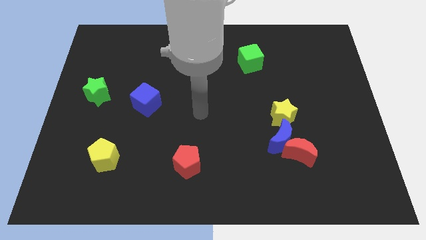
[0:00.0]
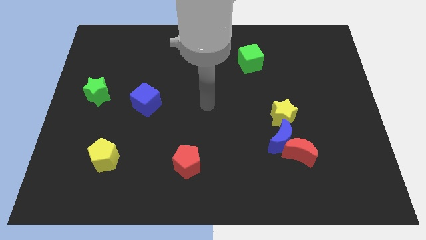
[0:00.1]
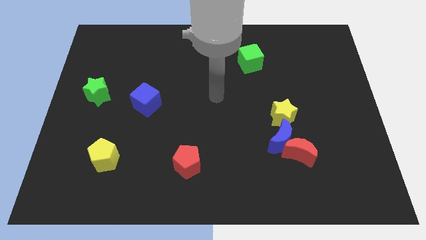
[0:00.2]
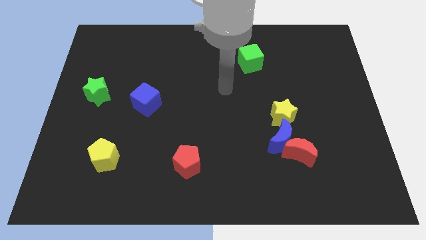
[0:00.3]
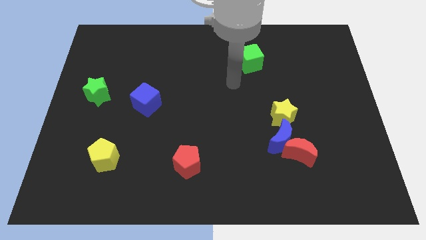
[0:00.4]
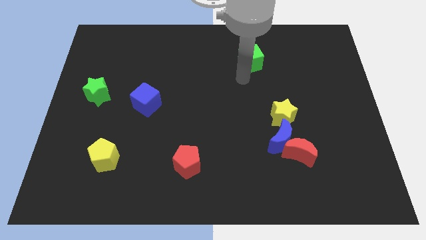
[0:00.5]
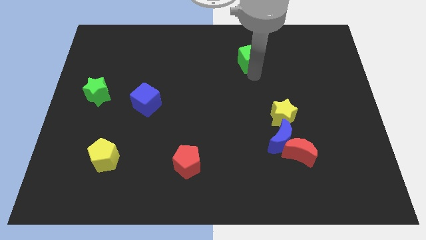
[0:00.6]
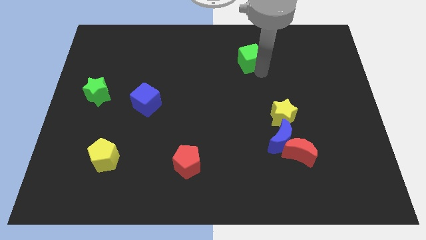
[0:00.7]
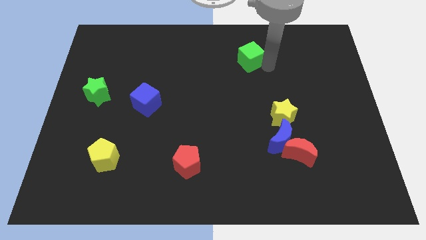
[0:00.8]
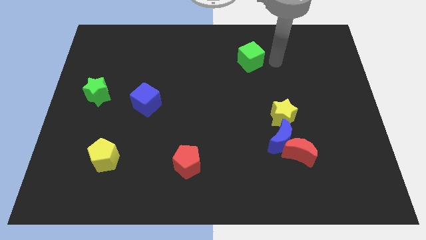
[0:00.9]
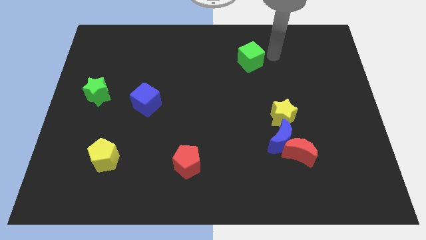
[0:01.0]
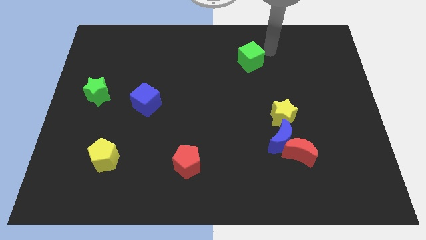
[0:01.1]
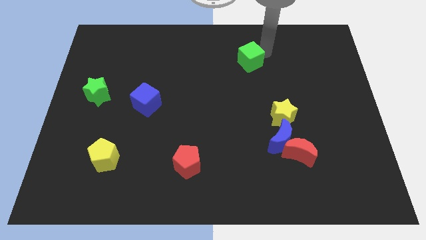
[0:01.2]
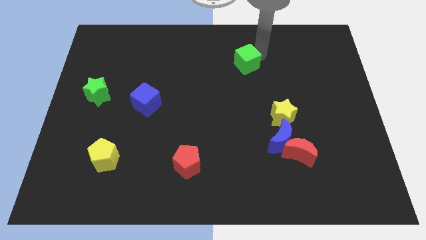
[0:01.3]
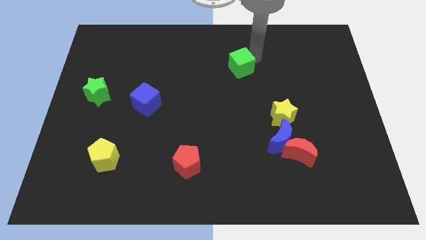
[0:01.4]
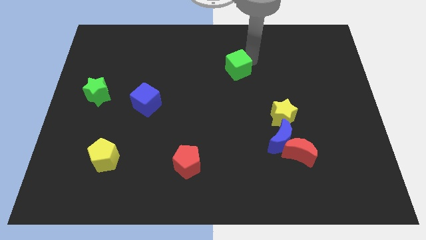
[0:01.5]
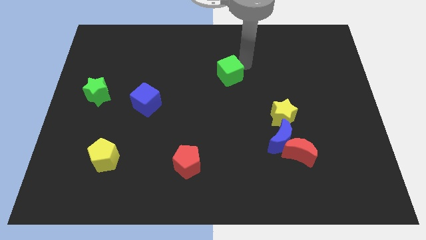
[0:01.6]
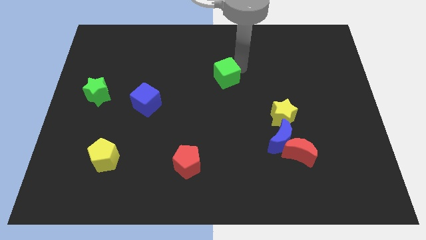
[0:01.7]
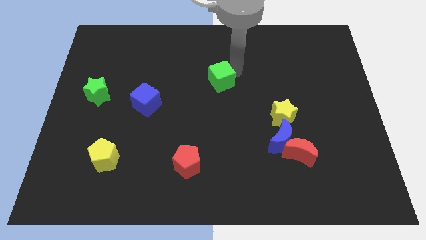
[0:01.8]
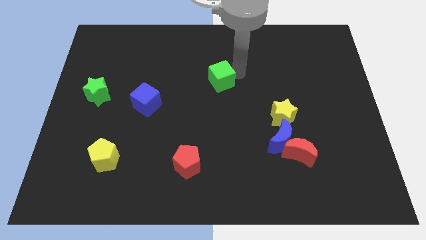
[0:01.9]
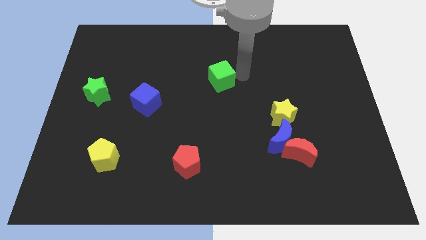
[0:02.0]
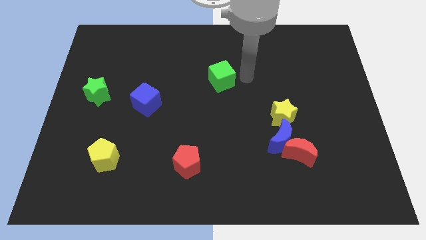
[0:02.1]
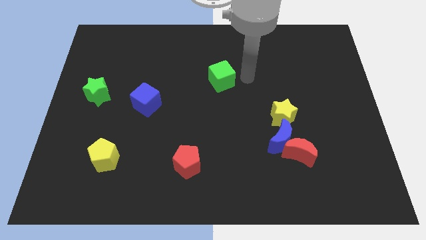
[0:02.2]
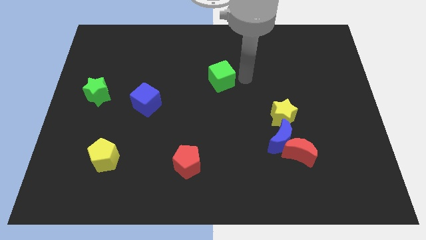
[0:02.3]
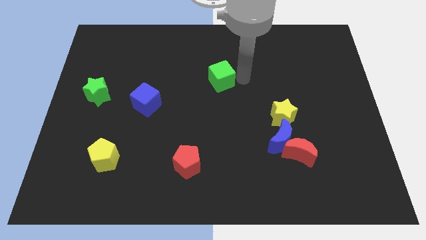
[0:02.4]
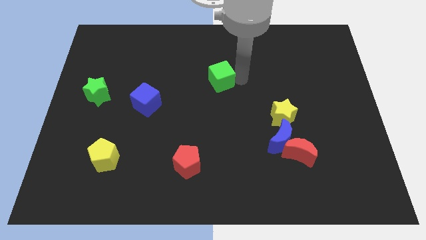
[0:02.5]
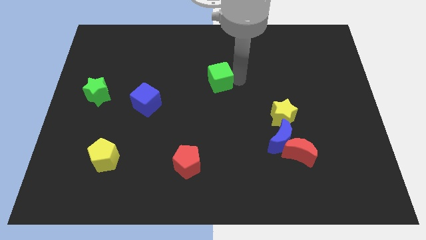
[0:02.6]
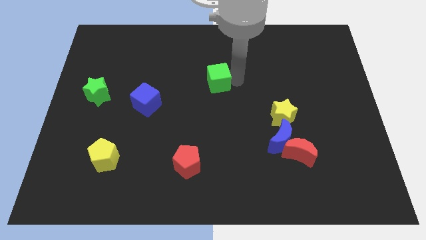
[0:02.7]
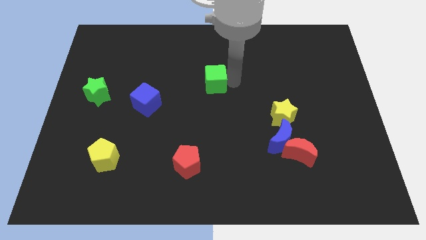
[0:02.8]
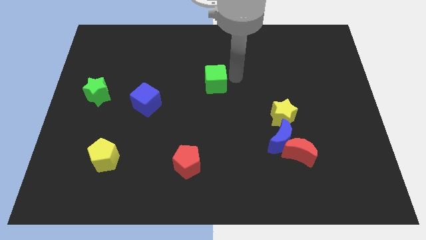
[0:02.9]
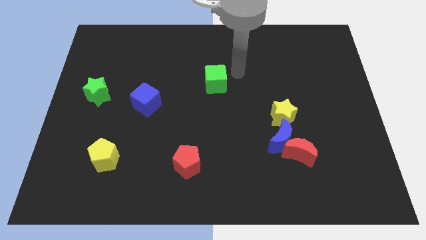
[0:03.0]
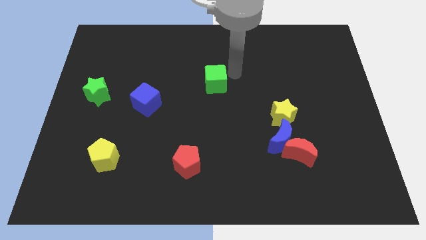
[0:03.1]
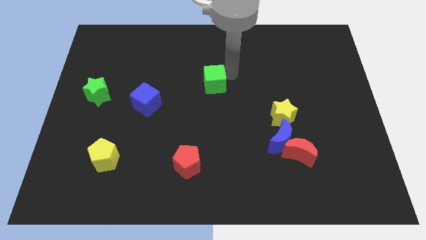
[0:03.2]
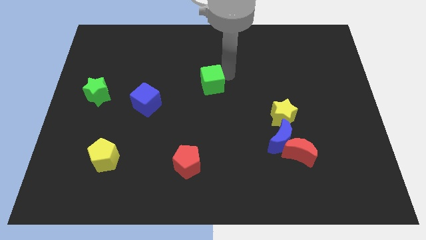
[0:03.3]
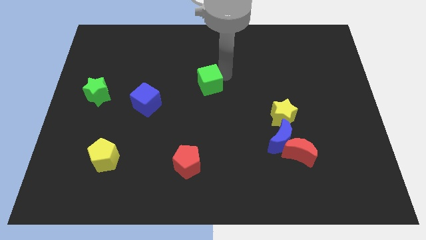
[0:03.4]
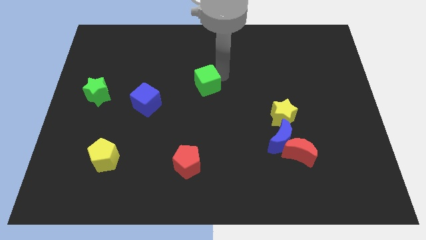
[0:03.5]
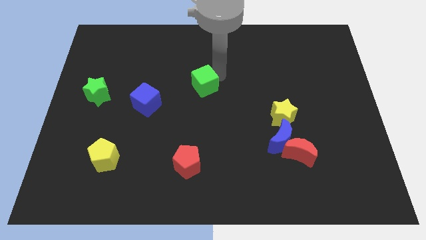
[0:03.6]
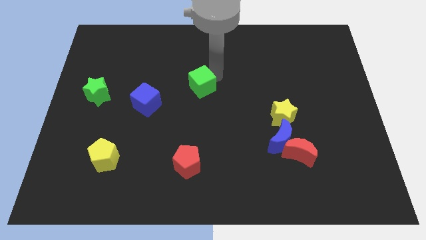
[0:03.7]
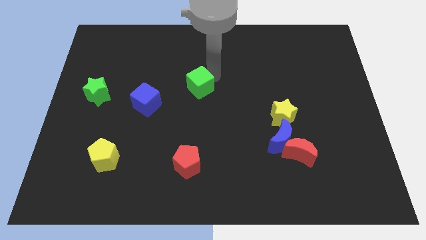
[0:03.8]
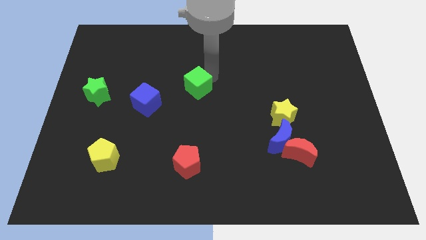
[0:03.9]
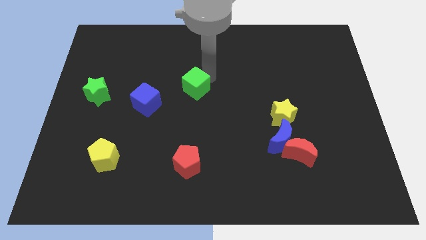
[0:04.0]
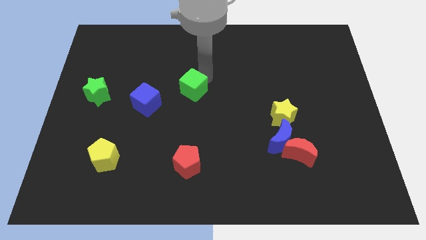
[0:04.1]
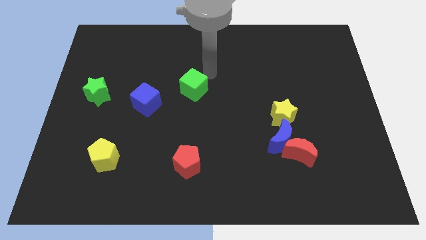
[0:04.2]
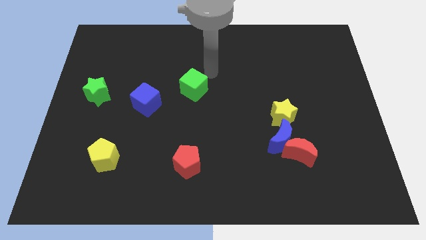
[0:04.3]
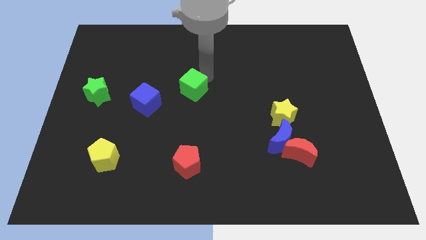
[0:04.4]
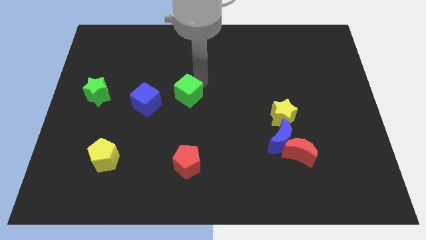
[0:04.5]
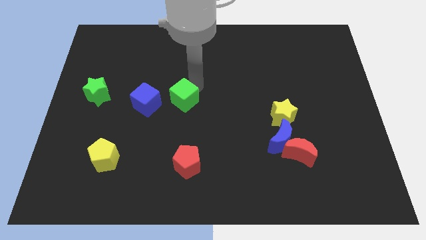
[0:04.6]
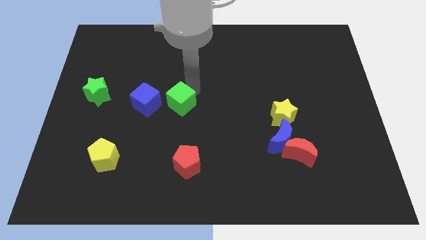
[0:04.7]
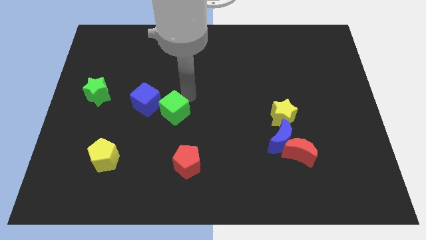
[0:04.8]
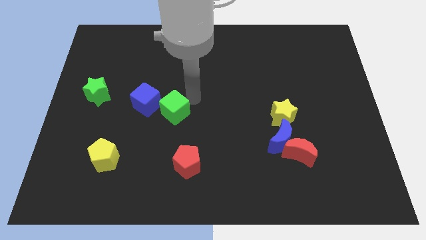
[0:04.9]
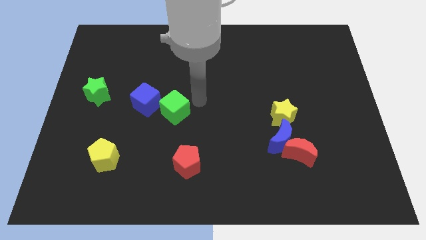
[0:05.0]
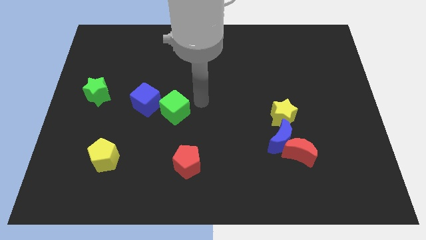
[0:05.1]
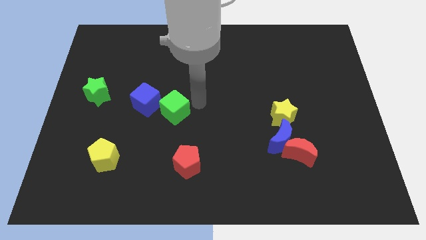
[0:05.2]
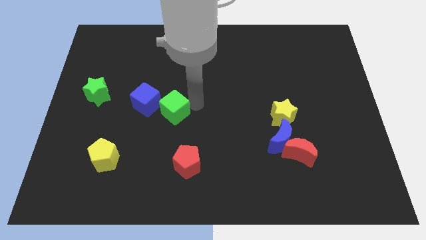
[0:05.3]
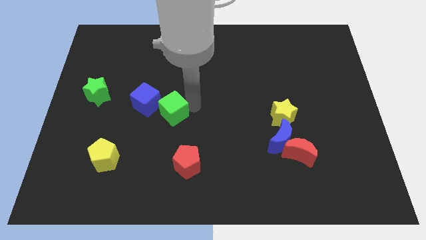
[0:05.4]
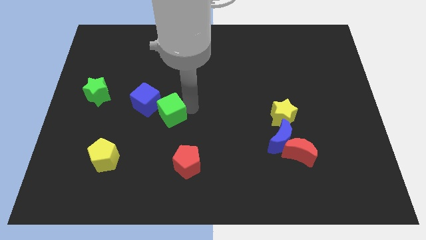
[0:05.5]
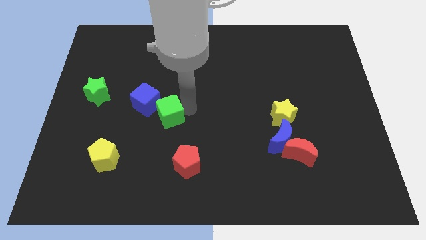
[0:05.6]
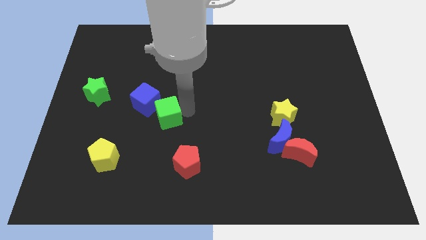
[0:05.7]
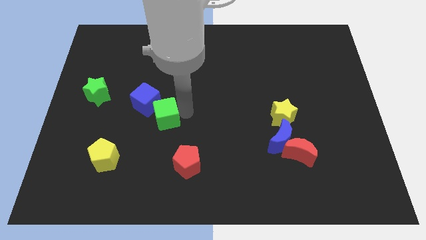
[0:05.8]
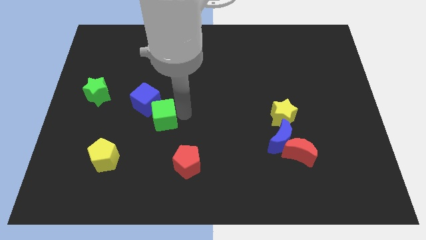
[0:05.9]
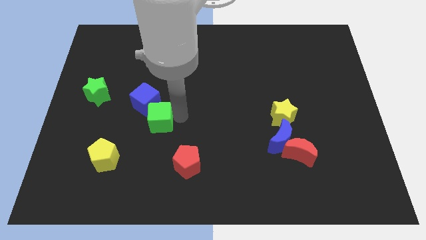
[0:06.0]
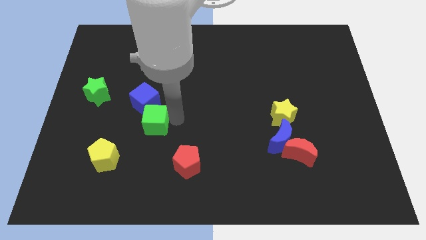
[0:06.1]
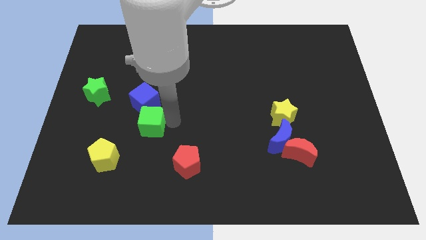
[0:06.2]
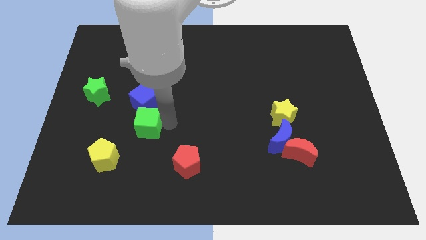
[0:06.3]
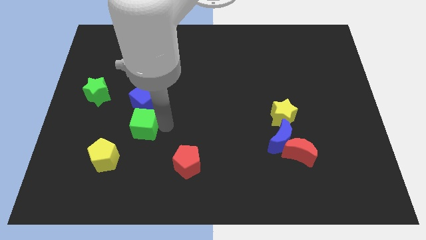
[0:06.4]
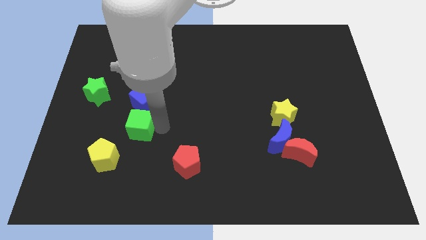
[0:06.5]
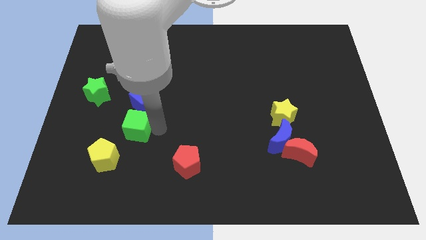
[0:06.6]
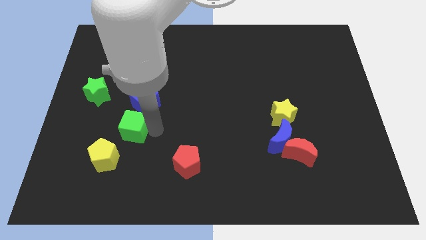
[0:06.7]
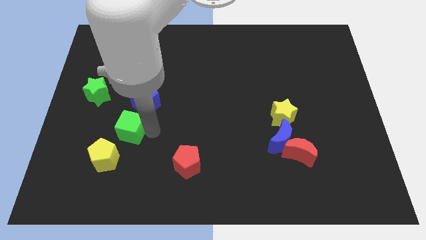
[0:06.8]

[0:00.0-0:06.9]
move the green cube to the top of the yellow pentagon

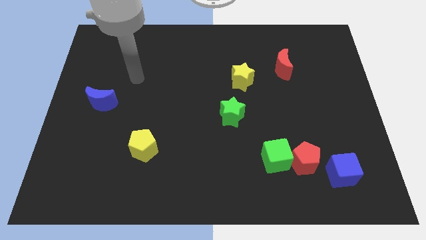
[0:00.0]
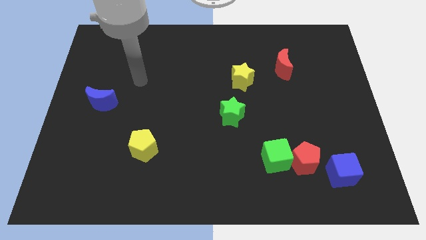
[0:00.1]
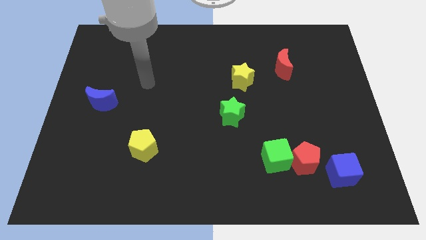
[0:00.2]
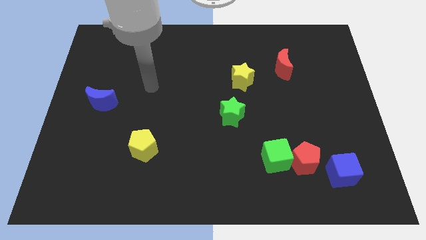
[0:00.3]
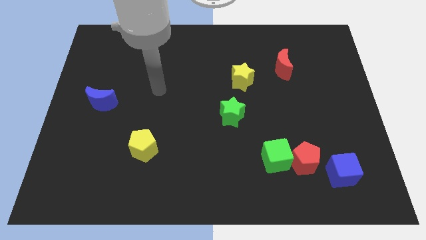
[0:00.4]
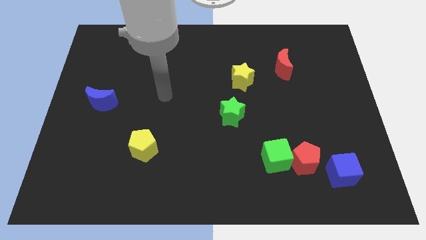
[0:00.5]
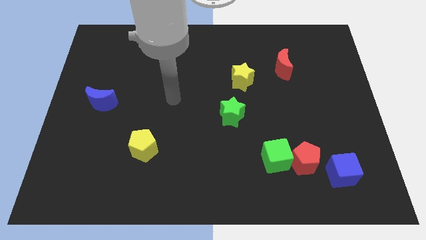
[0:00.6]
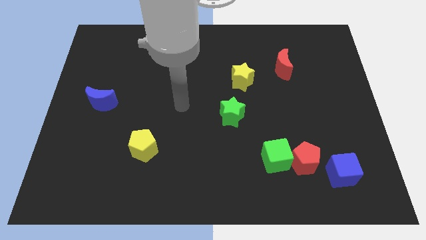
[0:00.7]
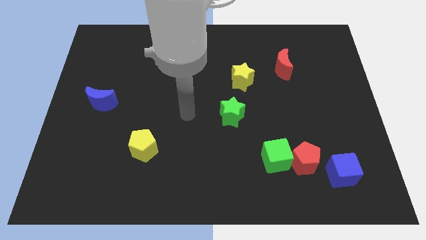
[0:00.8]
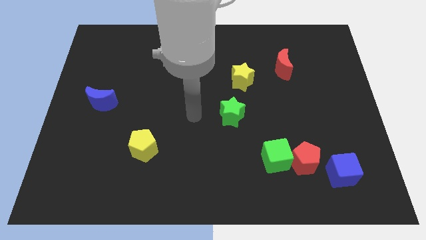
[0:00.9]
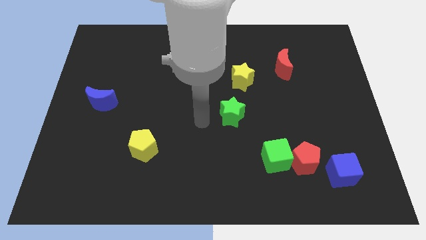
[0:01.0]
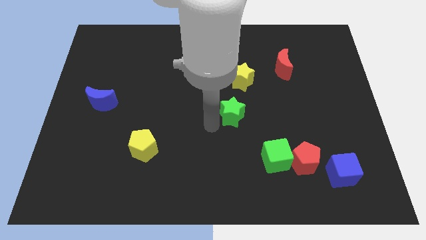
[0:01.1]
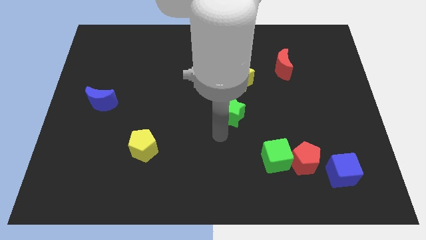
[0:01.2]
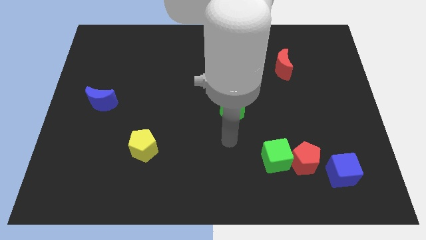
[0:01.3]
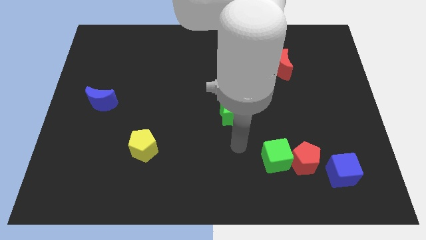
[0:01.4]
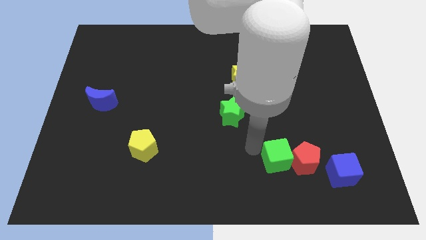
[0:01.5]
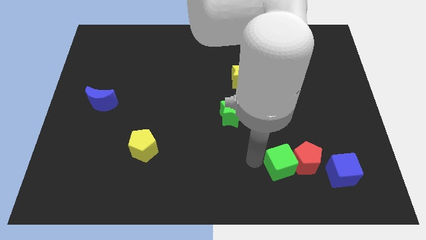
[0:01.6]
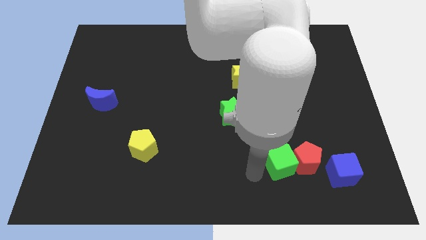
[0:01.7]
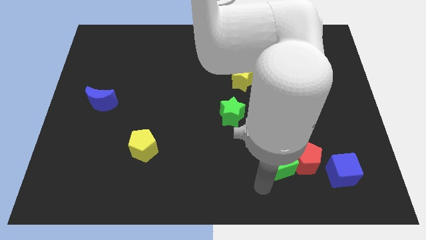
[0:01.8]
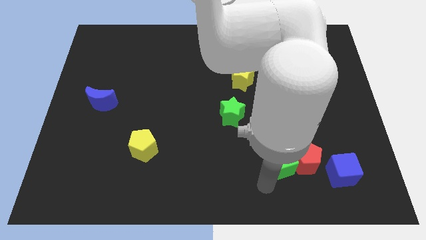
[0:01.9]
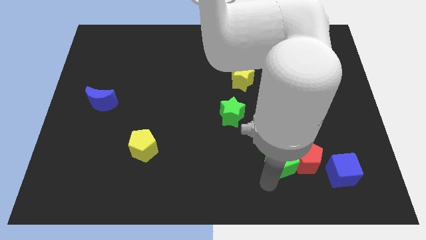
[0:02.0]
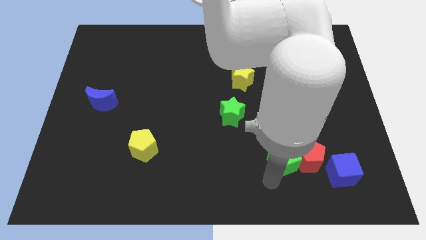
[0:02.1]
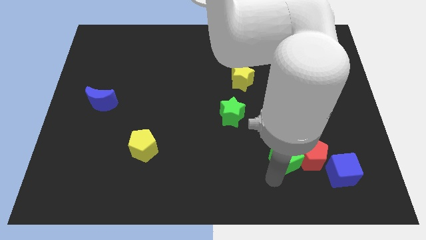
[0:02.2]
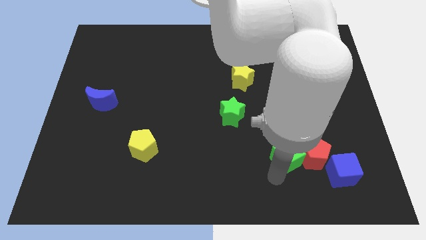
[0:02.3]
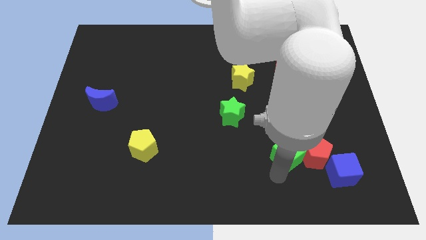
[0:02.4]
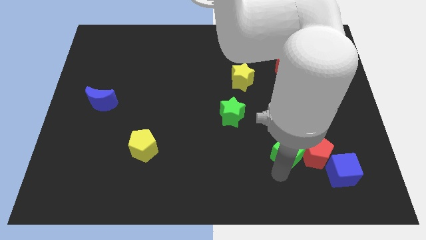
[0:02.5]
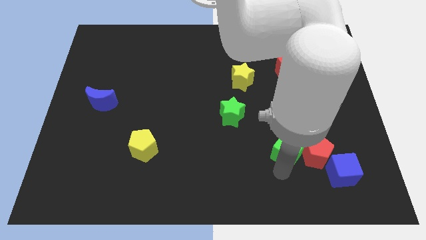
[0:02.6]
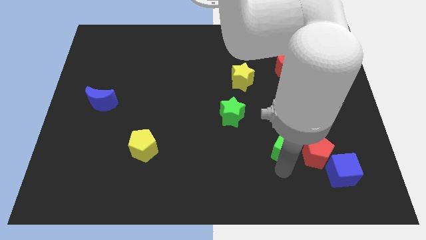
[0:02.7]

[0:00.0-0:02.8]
slide the green cube to the top left of the blue cube
